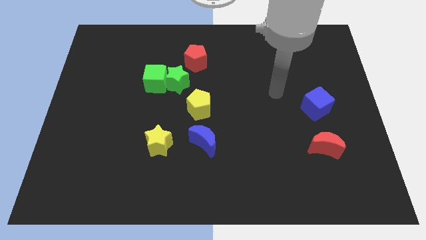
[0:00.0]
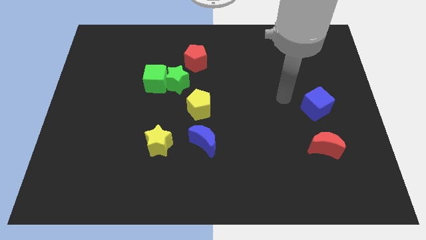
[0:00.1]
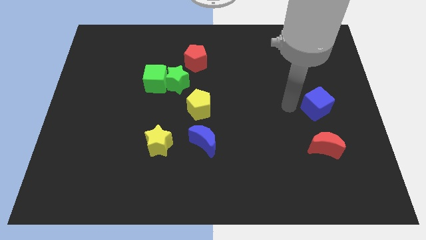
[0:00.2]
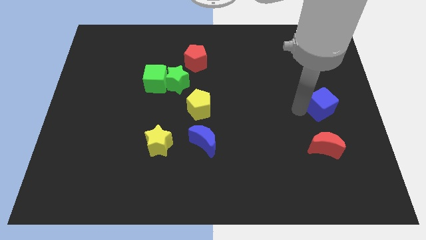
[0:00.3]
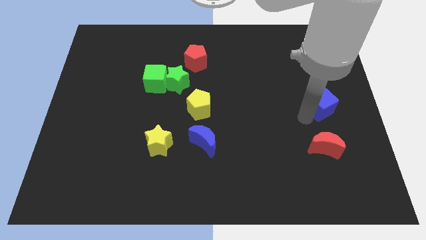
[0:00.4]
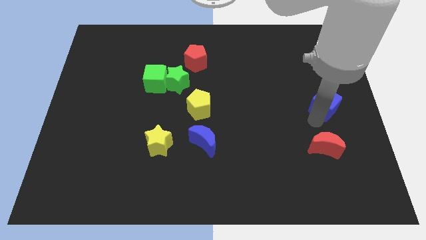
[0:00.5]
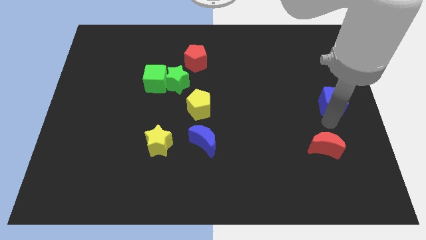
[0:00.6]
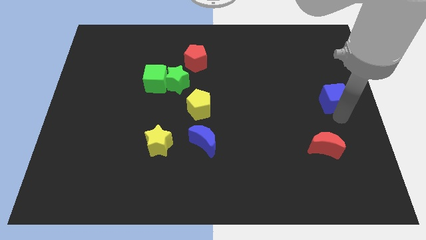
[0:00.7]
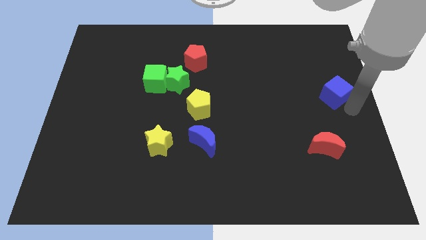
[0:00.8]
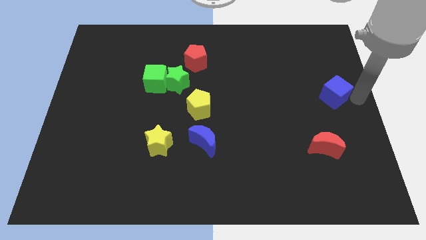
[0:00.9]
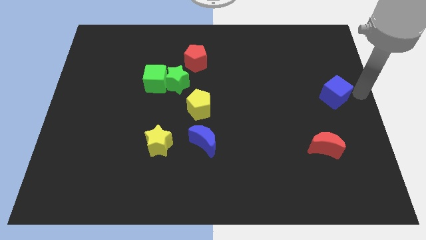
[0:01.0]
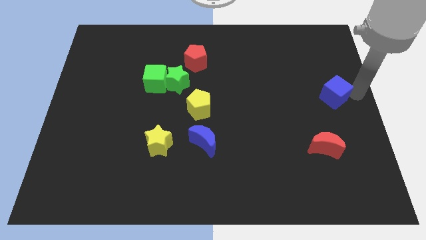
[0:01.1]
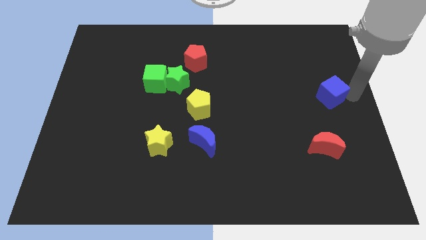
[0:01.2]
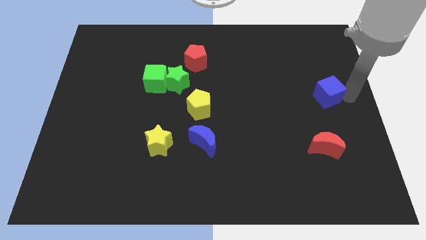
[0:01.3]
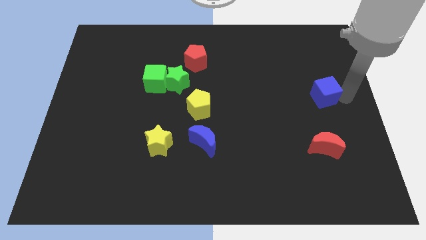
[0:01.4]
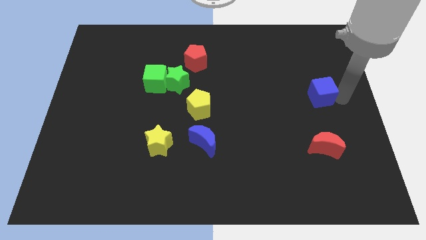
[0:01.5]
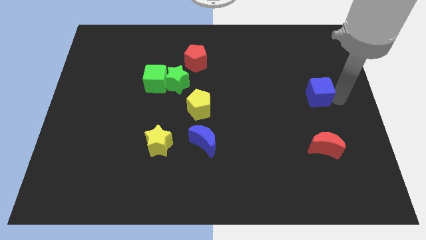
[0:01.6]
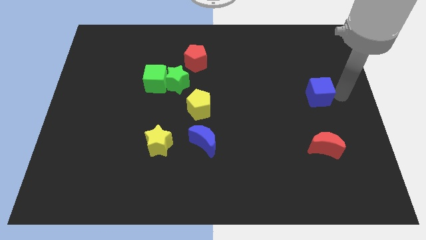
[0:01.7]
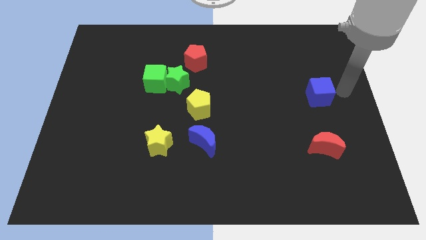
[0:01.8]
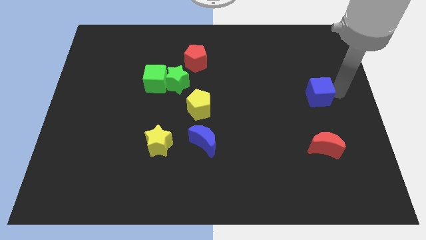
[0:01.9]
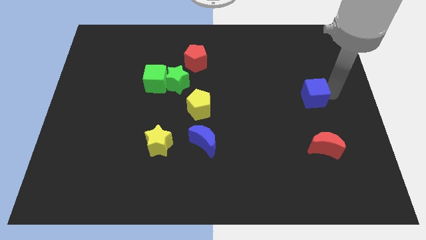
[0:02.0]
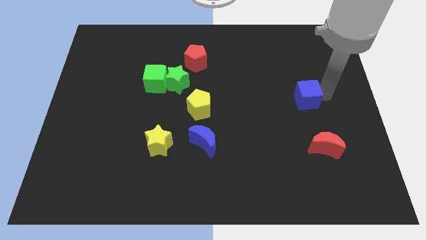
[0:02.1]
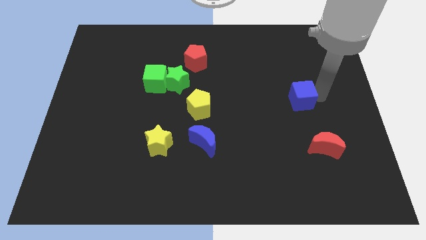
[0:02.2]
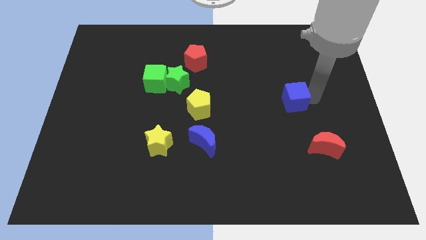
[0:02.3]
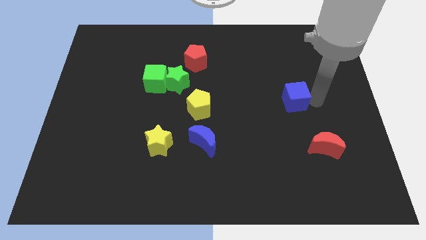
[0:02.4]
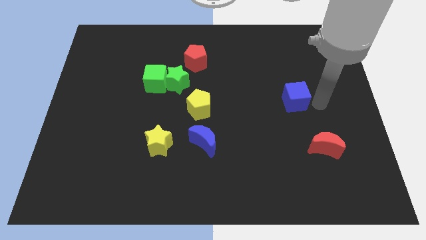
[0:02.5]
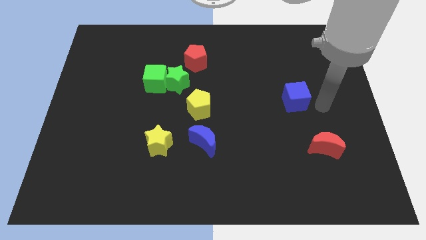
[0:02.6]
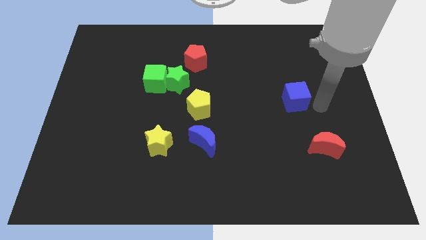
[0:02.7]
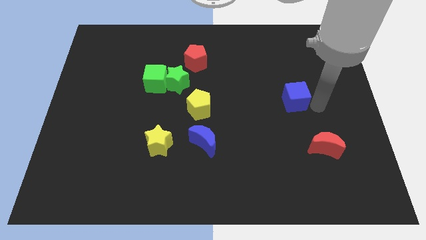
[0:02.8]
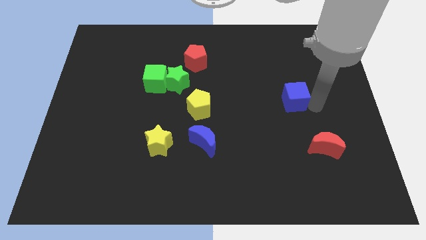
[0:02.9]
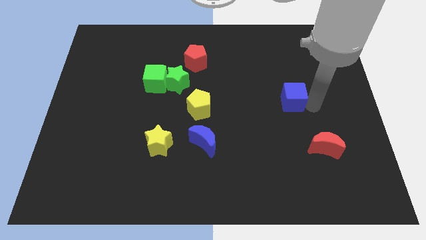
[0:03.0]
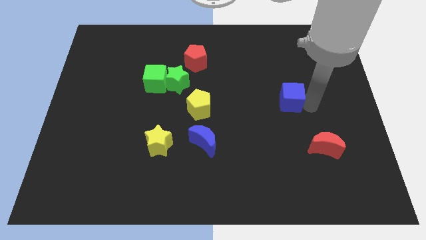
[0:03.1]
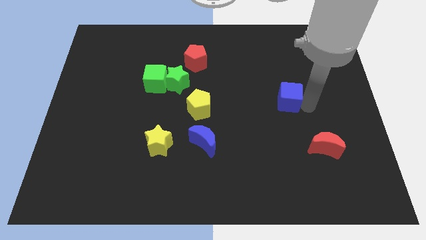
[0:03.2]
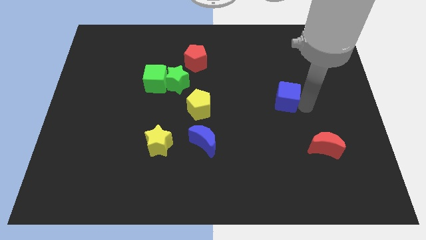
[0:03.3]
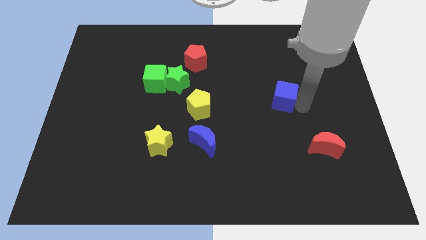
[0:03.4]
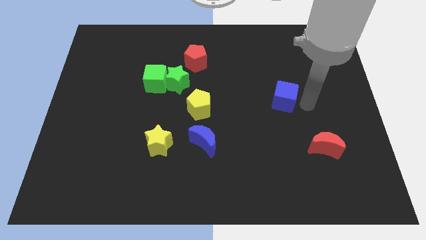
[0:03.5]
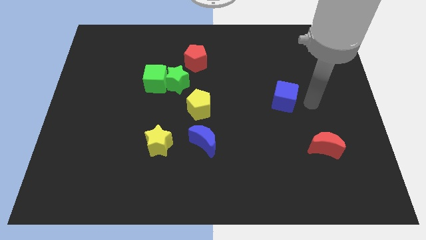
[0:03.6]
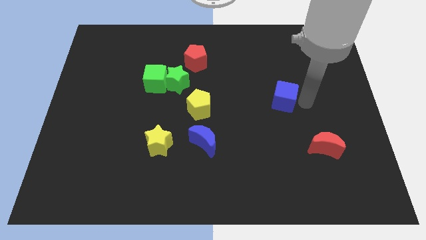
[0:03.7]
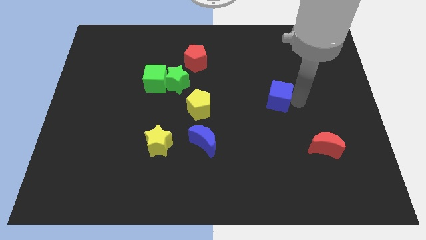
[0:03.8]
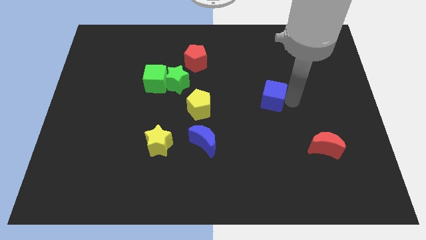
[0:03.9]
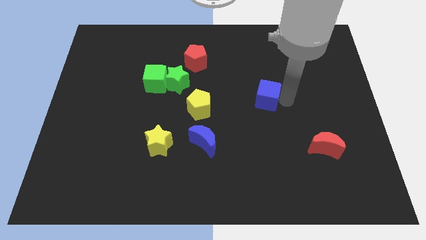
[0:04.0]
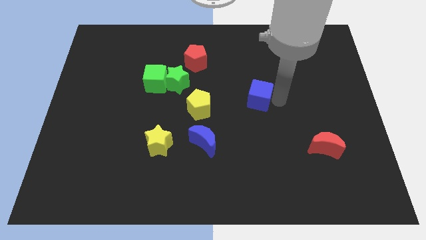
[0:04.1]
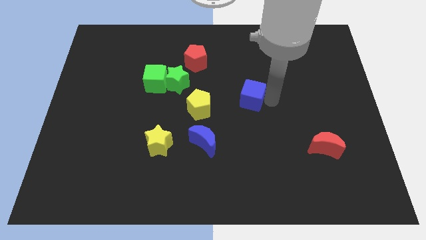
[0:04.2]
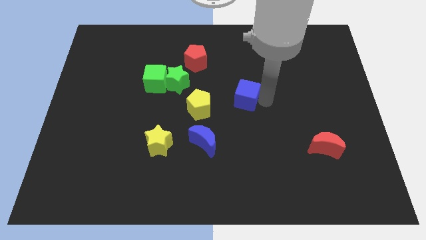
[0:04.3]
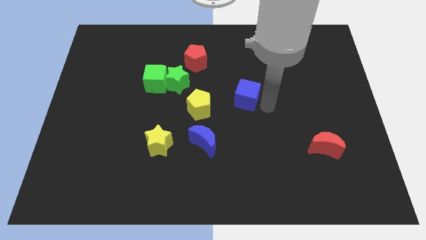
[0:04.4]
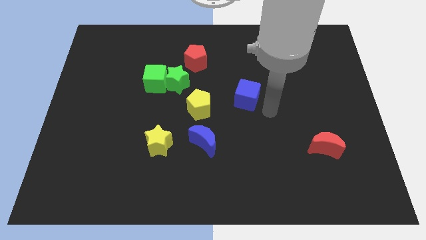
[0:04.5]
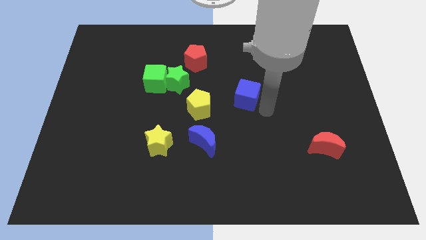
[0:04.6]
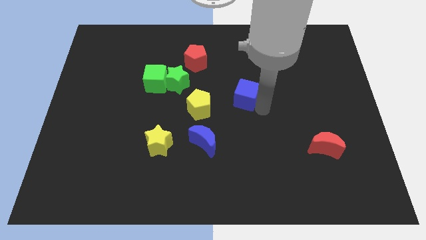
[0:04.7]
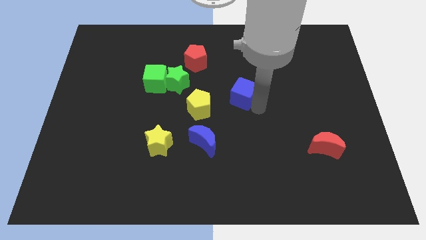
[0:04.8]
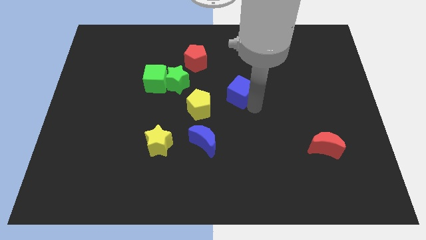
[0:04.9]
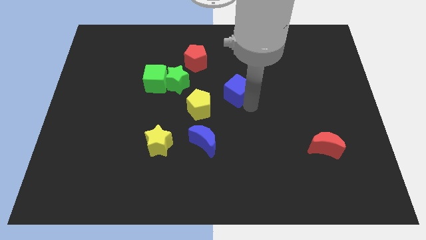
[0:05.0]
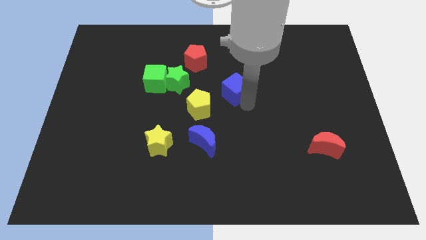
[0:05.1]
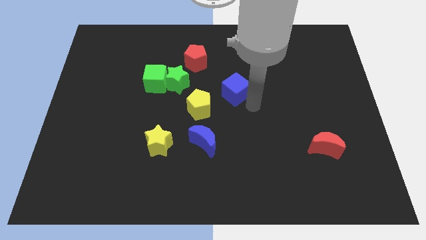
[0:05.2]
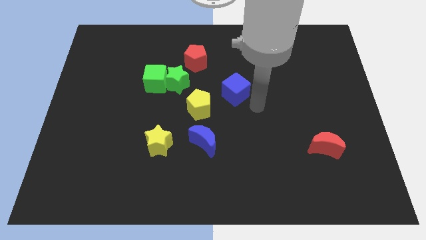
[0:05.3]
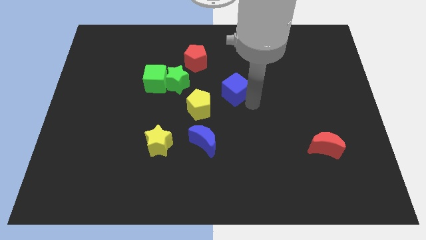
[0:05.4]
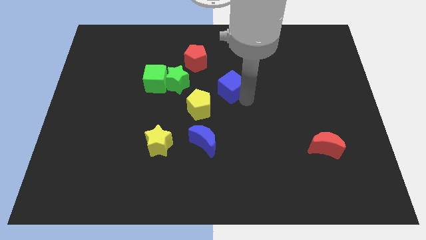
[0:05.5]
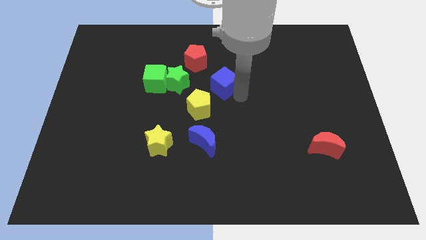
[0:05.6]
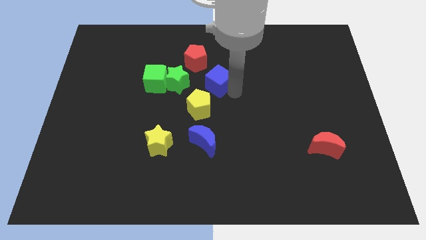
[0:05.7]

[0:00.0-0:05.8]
move the blue cube to the top side of the yellow pentagon

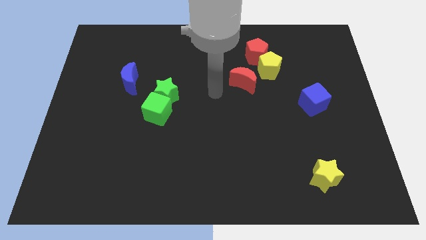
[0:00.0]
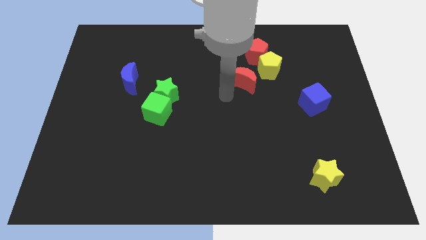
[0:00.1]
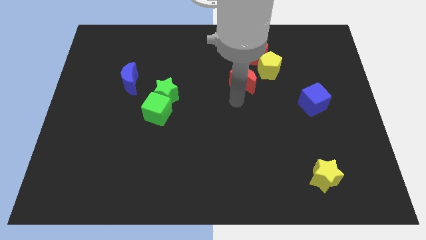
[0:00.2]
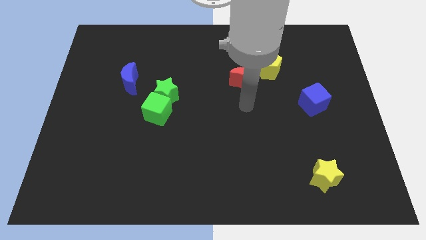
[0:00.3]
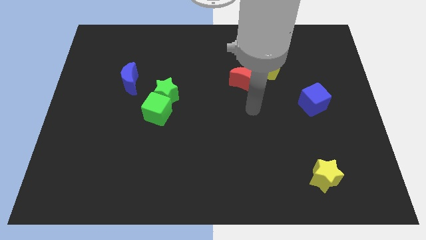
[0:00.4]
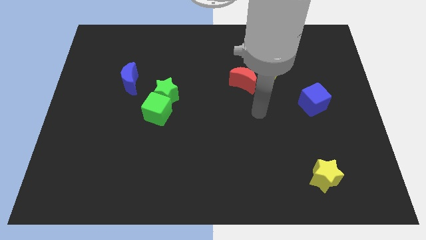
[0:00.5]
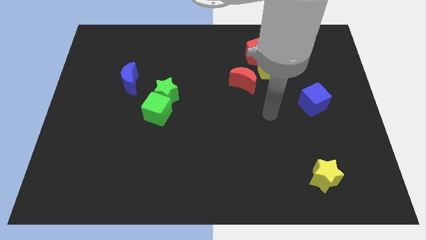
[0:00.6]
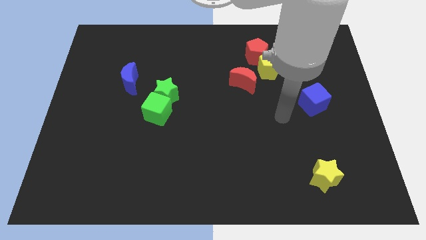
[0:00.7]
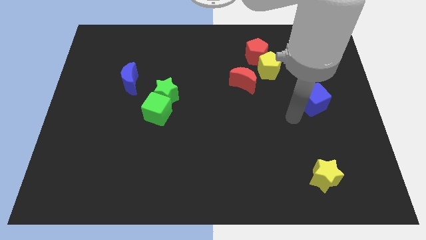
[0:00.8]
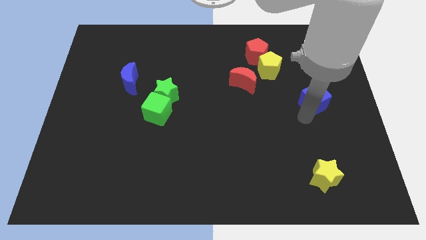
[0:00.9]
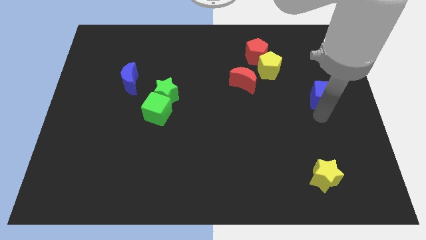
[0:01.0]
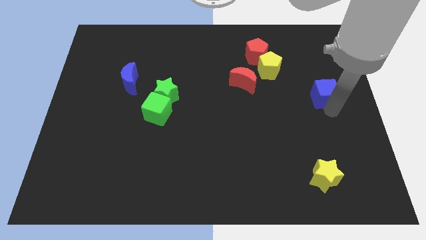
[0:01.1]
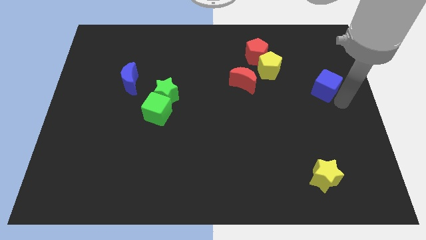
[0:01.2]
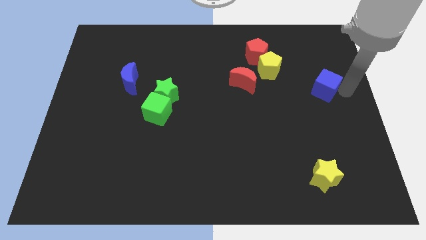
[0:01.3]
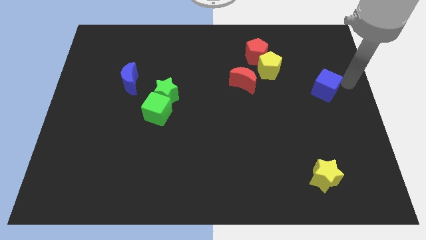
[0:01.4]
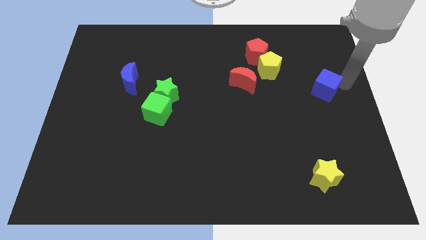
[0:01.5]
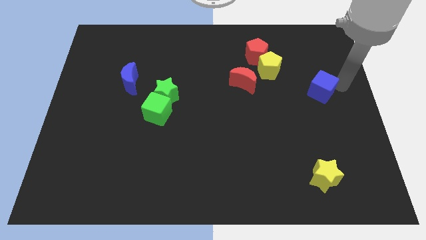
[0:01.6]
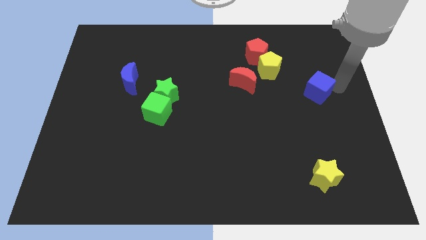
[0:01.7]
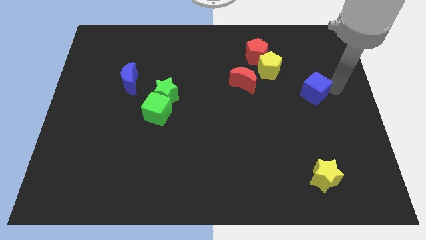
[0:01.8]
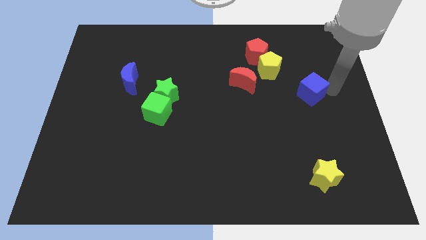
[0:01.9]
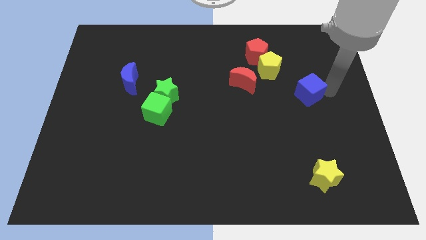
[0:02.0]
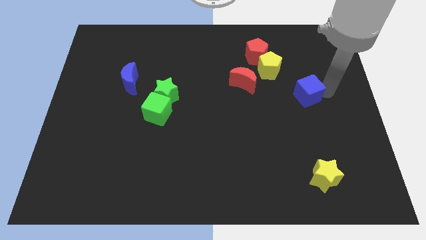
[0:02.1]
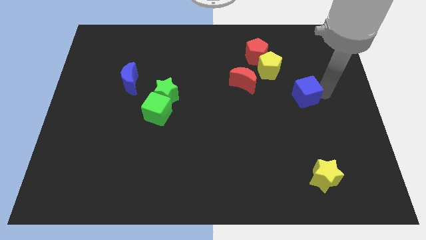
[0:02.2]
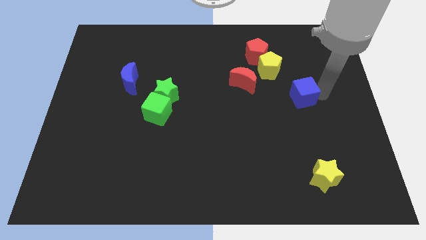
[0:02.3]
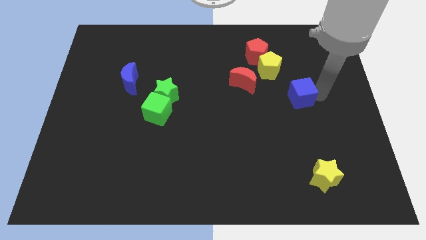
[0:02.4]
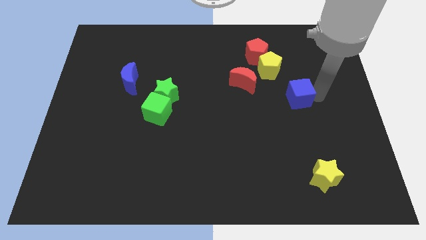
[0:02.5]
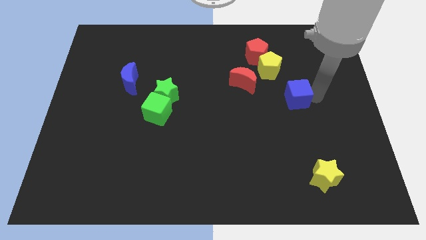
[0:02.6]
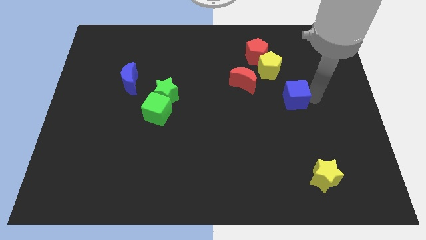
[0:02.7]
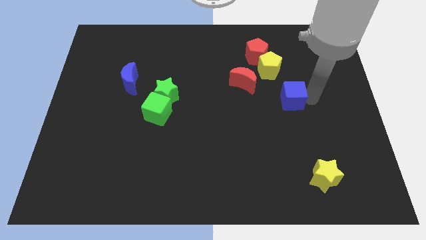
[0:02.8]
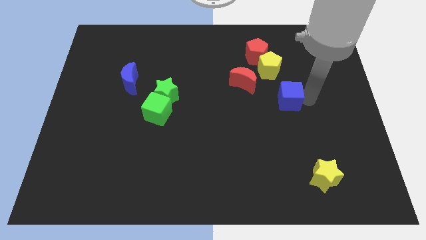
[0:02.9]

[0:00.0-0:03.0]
push the blue cube to the bottom right side of the red moon
